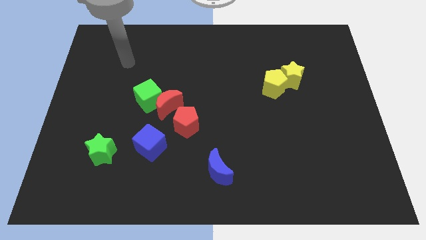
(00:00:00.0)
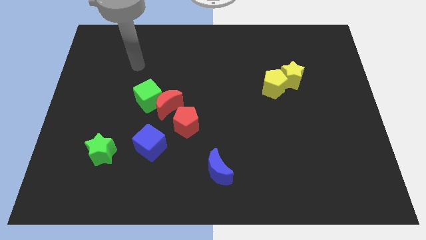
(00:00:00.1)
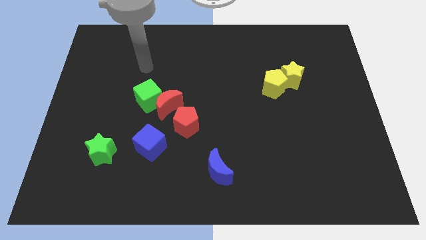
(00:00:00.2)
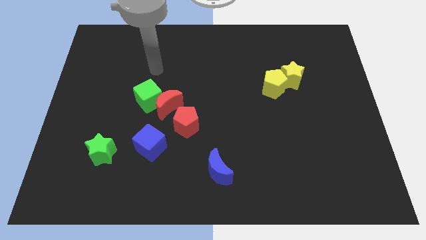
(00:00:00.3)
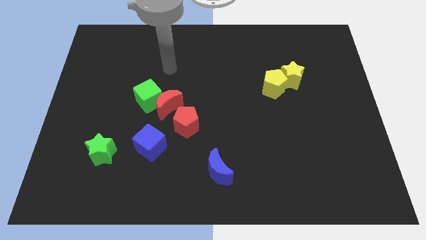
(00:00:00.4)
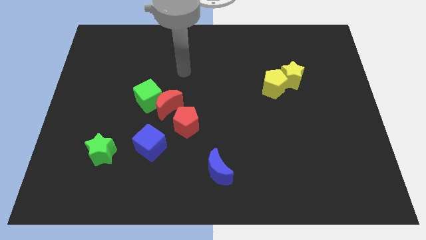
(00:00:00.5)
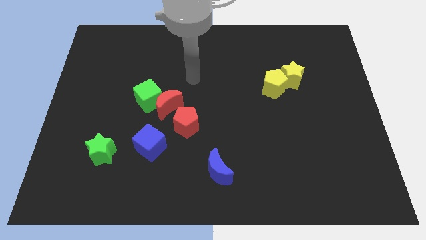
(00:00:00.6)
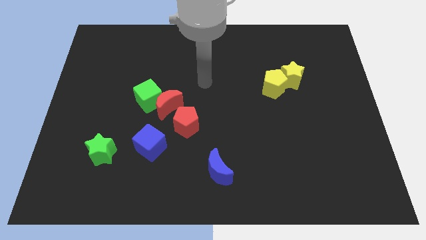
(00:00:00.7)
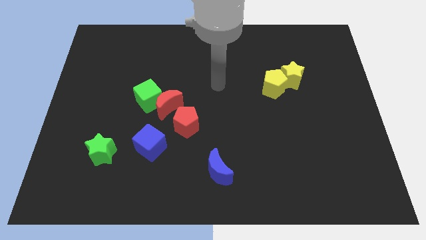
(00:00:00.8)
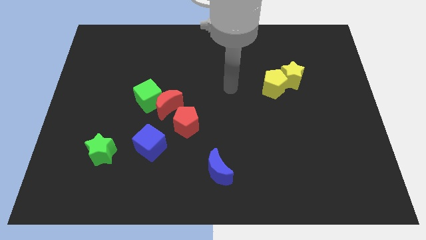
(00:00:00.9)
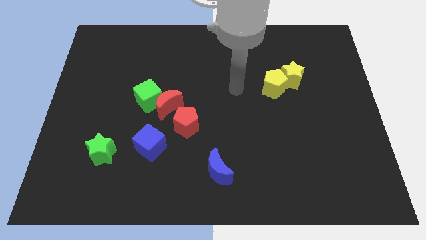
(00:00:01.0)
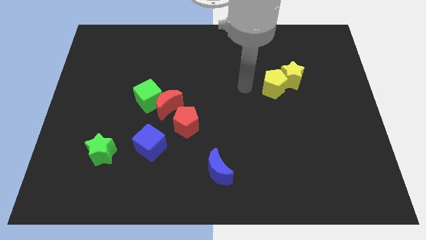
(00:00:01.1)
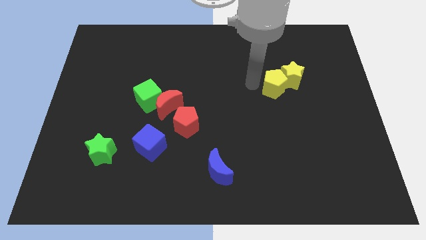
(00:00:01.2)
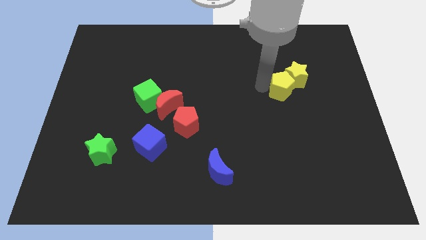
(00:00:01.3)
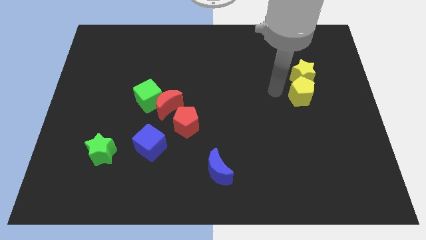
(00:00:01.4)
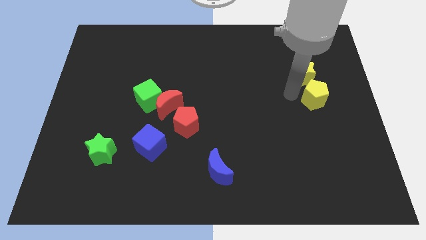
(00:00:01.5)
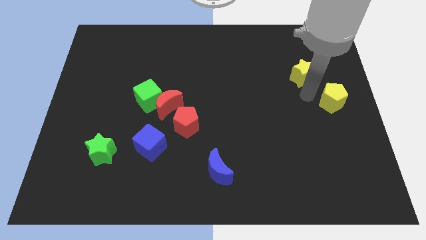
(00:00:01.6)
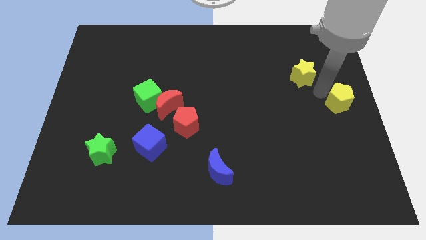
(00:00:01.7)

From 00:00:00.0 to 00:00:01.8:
pull the yellow star apart from the yellow pentagon

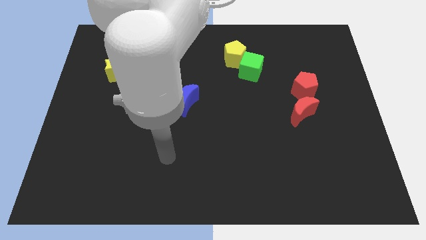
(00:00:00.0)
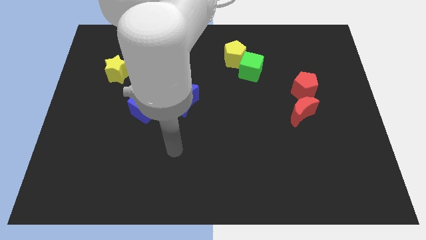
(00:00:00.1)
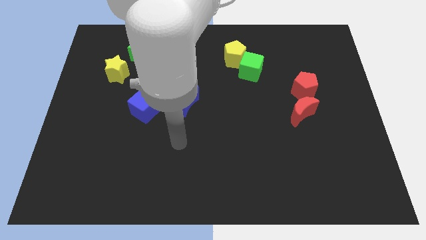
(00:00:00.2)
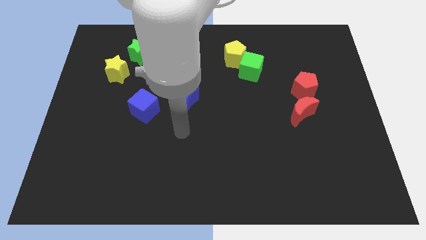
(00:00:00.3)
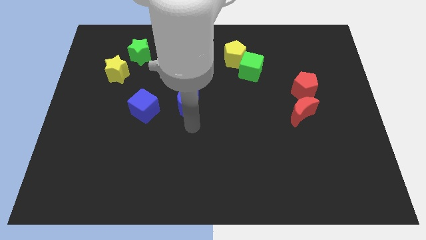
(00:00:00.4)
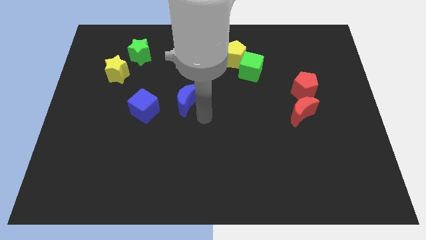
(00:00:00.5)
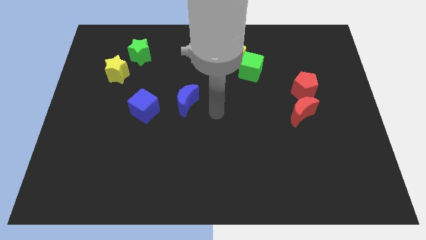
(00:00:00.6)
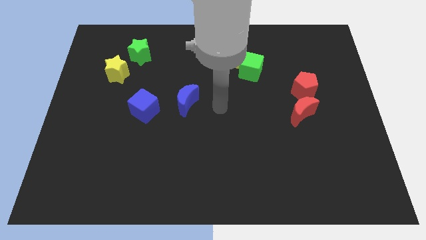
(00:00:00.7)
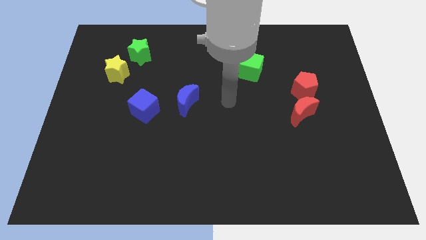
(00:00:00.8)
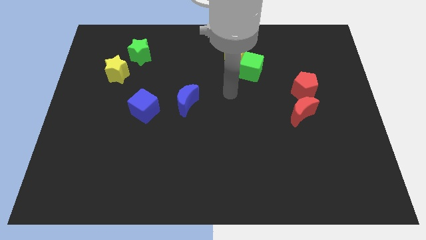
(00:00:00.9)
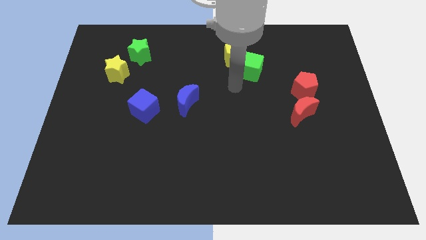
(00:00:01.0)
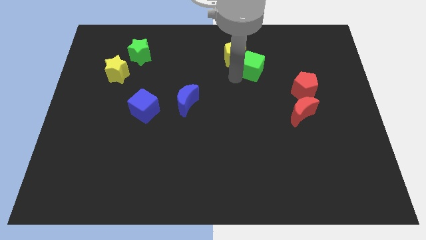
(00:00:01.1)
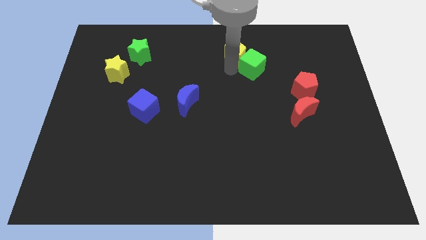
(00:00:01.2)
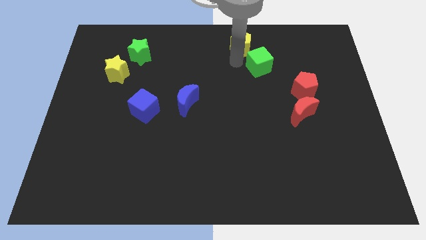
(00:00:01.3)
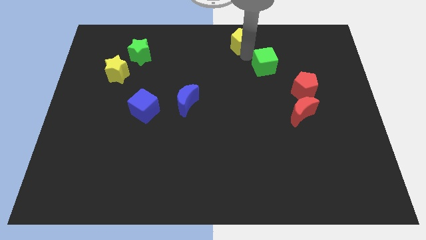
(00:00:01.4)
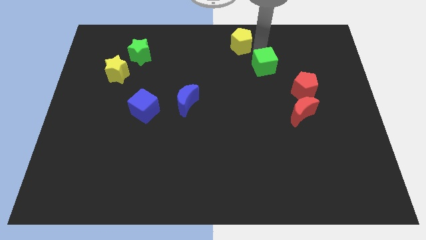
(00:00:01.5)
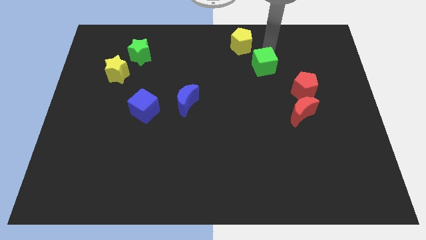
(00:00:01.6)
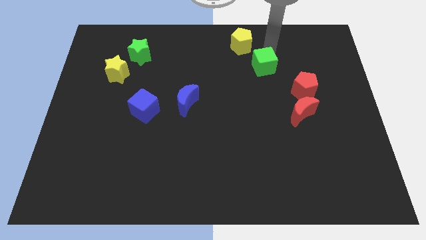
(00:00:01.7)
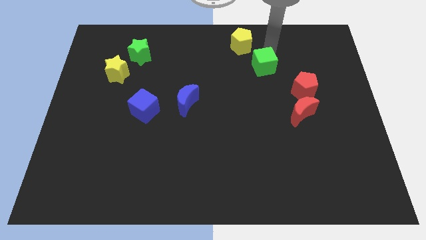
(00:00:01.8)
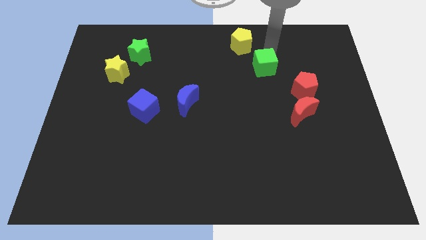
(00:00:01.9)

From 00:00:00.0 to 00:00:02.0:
pull the green cube apart from the yellow pentagon

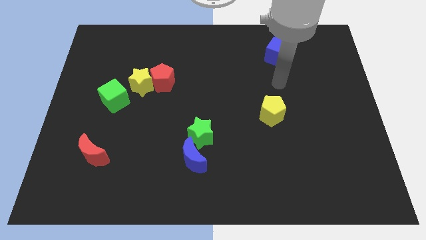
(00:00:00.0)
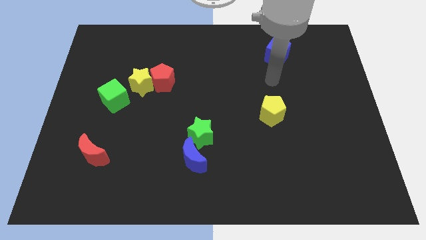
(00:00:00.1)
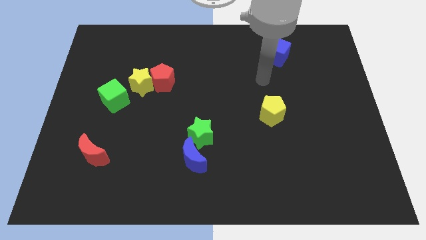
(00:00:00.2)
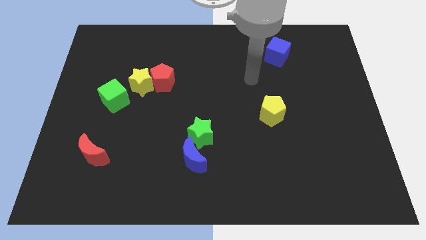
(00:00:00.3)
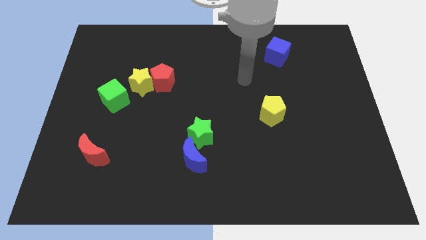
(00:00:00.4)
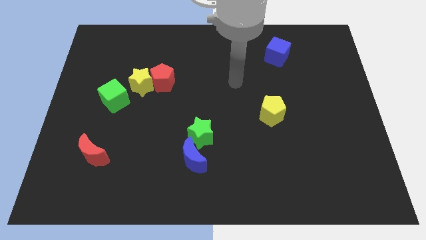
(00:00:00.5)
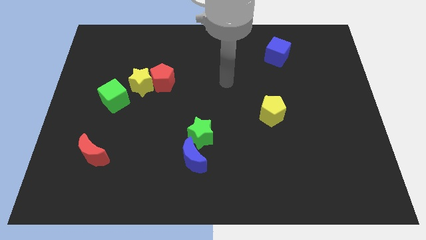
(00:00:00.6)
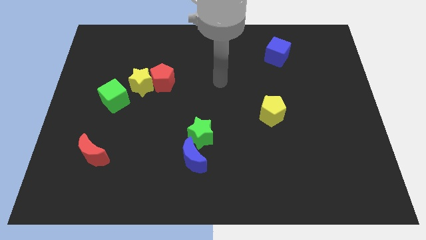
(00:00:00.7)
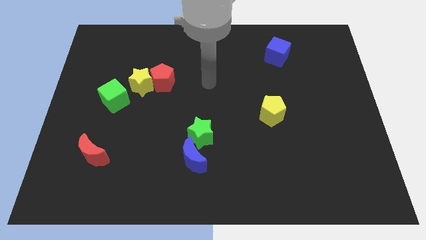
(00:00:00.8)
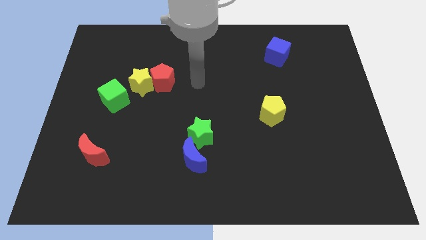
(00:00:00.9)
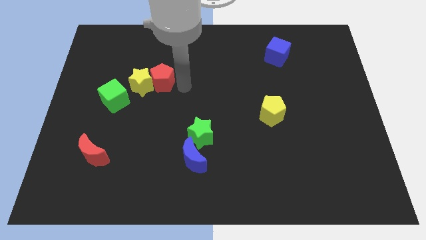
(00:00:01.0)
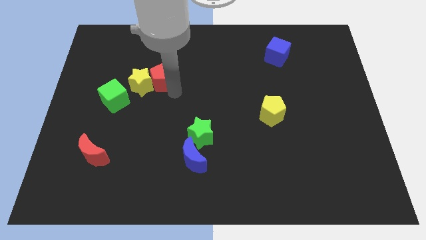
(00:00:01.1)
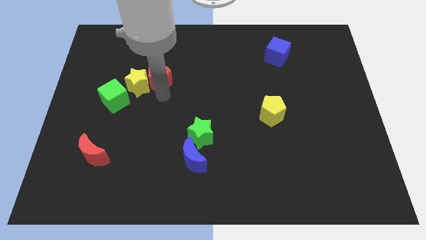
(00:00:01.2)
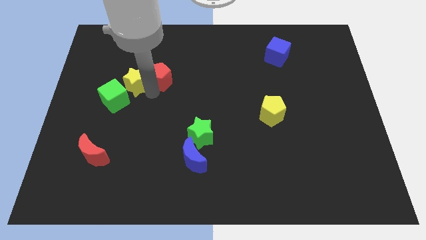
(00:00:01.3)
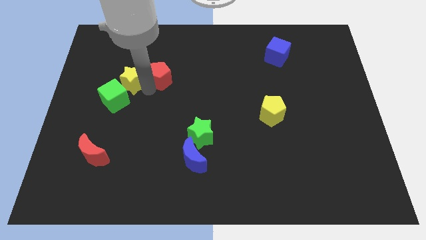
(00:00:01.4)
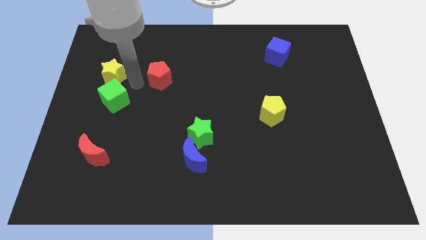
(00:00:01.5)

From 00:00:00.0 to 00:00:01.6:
move the red pentagon away from the yellow star

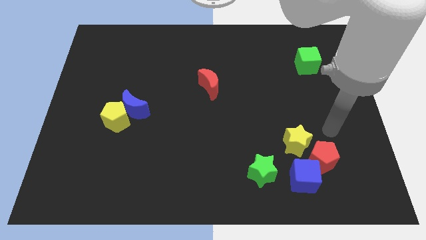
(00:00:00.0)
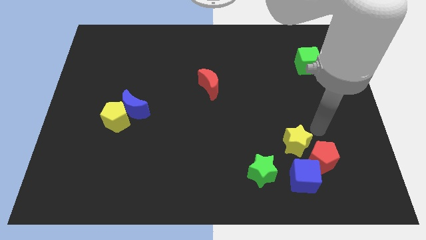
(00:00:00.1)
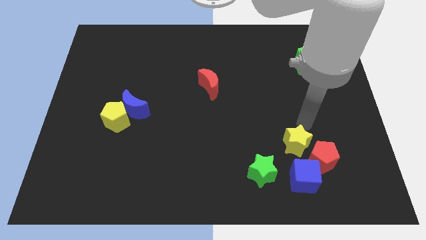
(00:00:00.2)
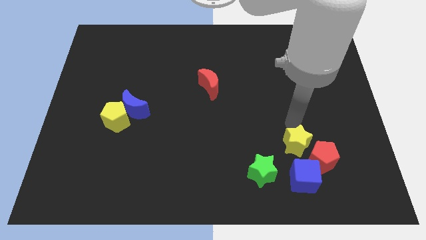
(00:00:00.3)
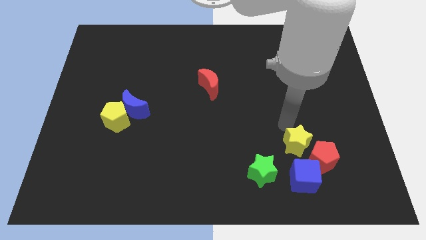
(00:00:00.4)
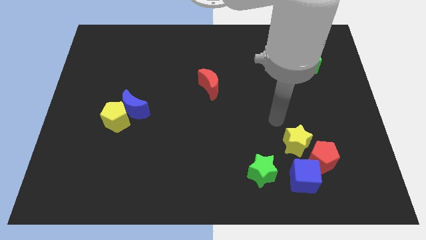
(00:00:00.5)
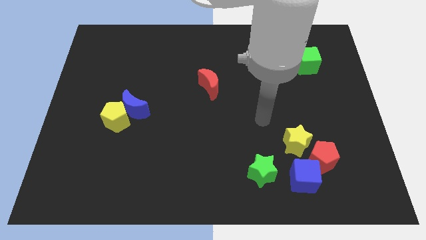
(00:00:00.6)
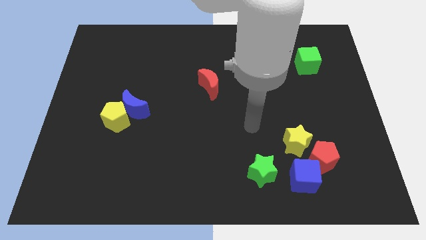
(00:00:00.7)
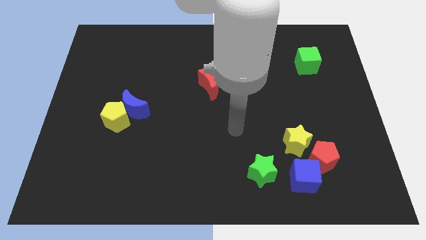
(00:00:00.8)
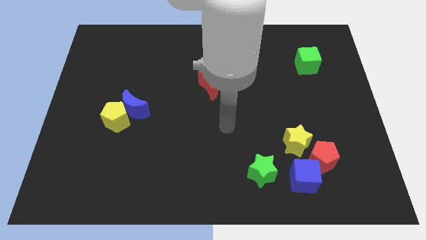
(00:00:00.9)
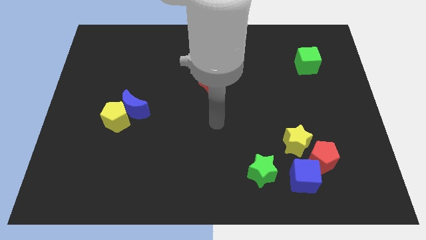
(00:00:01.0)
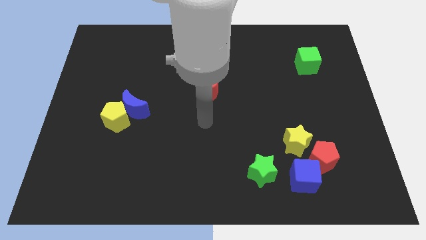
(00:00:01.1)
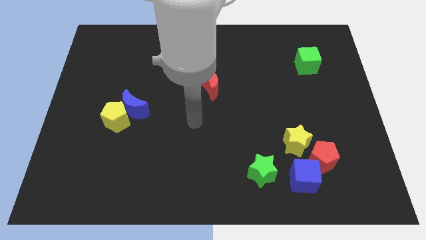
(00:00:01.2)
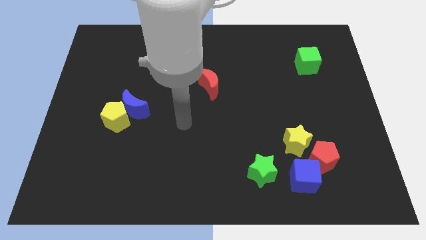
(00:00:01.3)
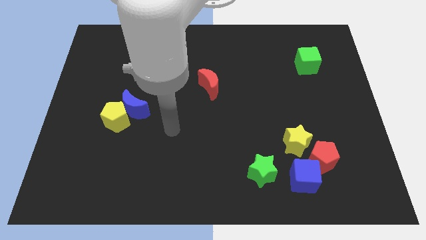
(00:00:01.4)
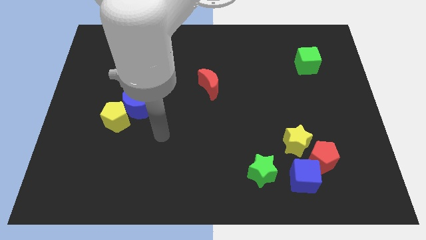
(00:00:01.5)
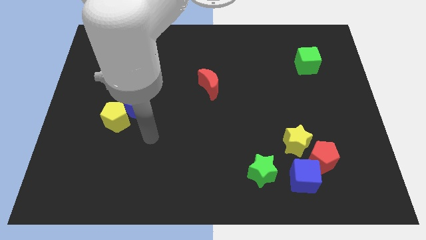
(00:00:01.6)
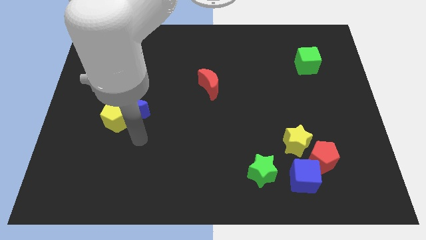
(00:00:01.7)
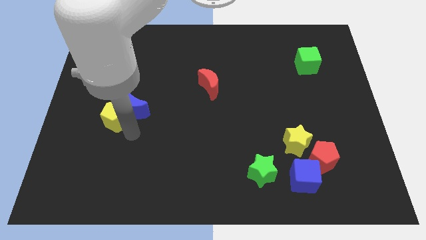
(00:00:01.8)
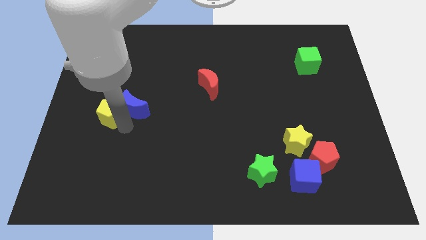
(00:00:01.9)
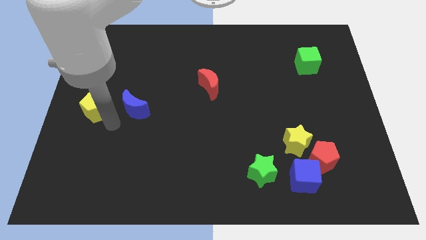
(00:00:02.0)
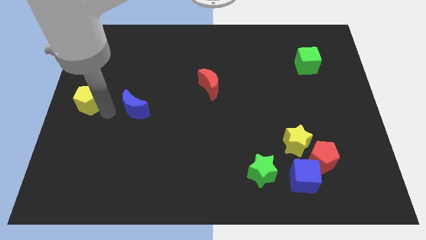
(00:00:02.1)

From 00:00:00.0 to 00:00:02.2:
move the blue moon away from the yellow pentagon

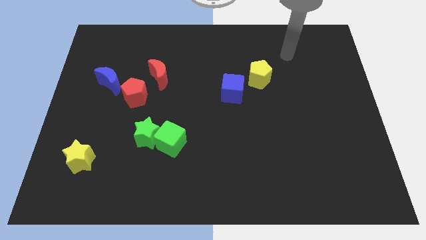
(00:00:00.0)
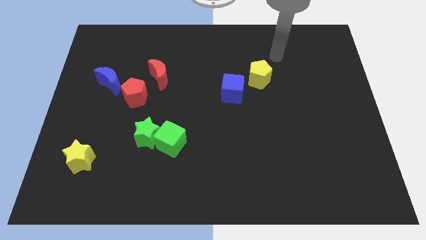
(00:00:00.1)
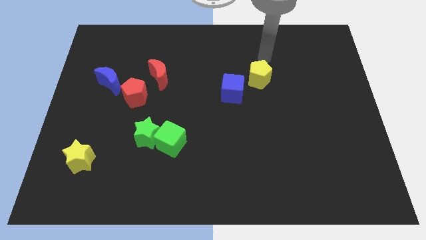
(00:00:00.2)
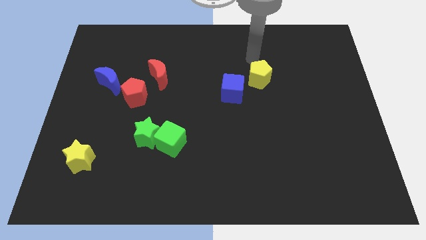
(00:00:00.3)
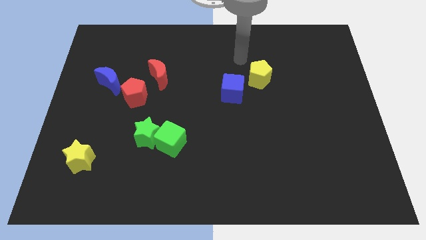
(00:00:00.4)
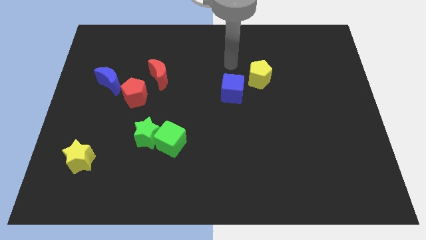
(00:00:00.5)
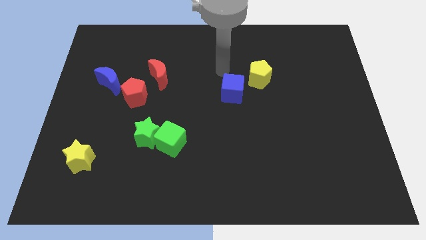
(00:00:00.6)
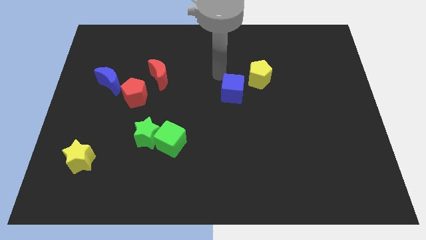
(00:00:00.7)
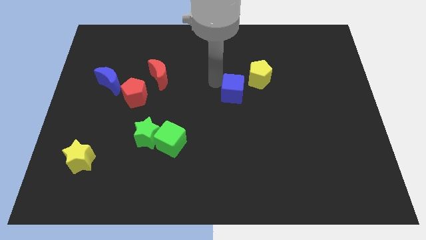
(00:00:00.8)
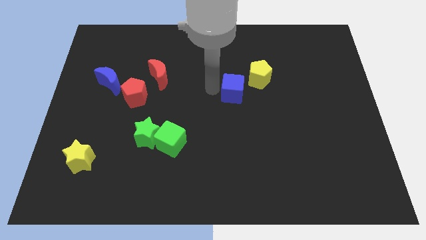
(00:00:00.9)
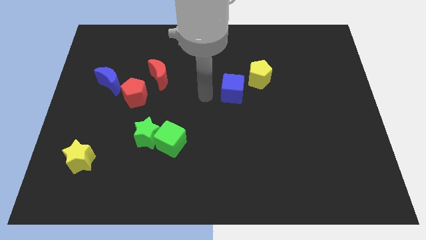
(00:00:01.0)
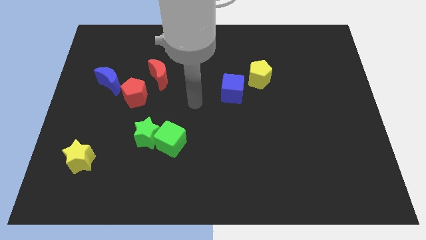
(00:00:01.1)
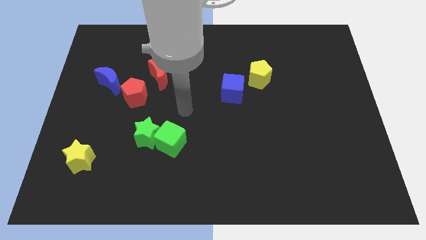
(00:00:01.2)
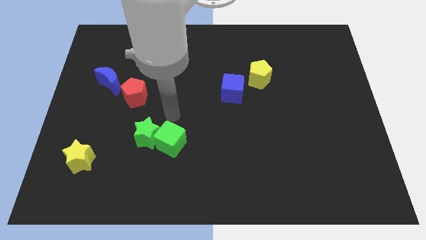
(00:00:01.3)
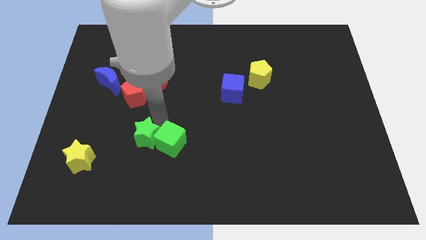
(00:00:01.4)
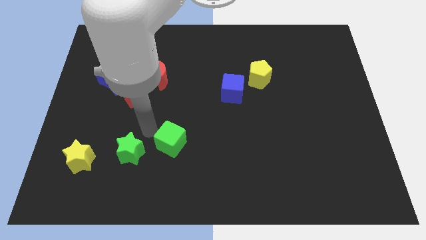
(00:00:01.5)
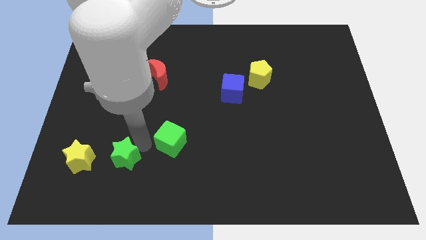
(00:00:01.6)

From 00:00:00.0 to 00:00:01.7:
move the green cube away from the green star
